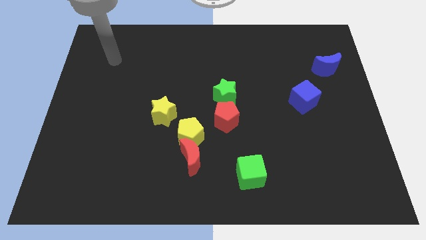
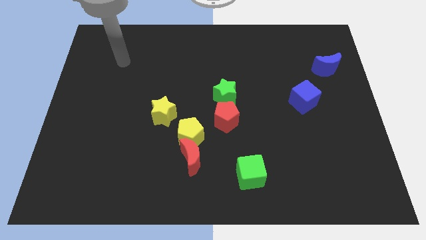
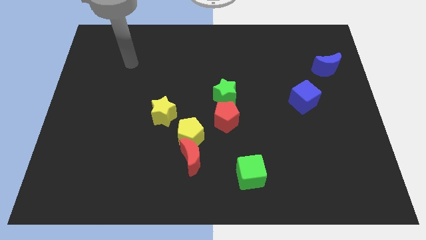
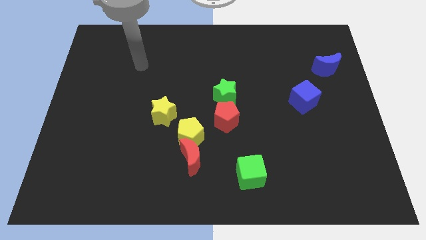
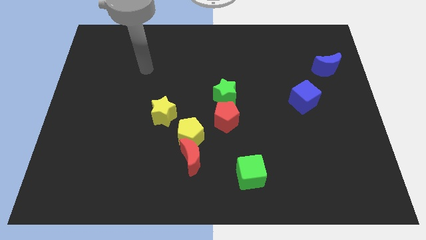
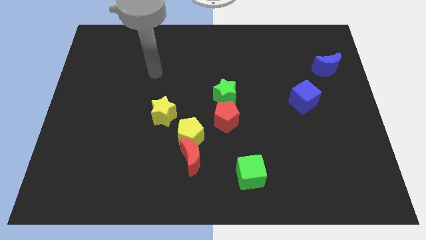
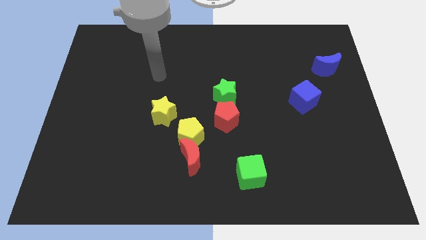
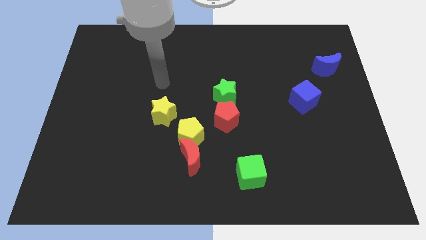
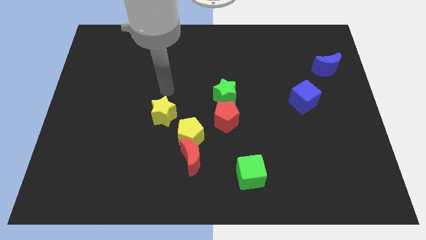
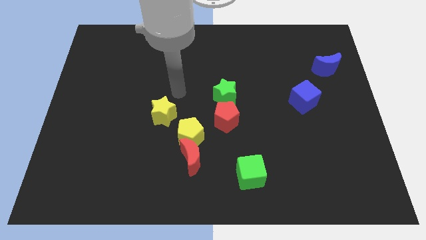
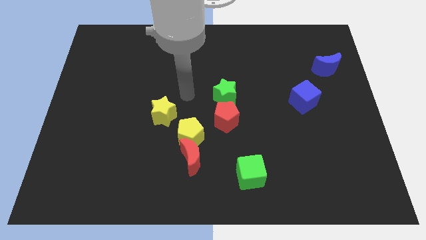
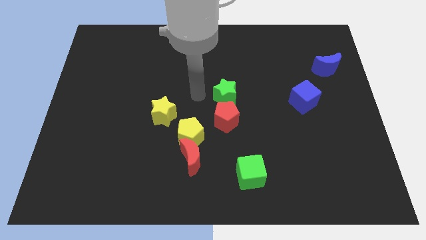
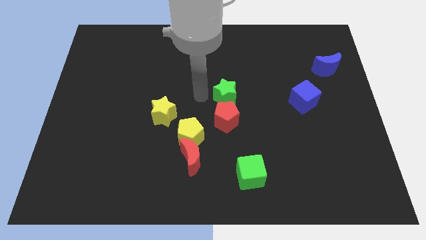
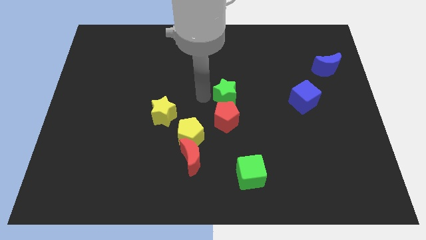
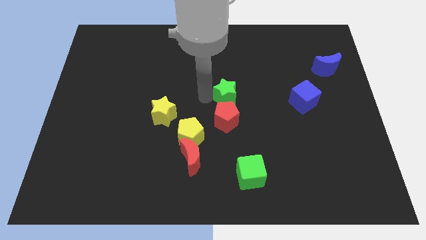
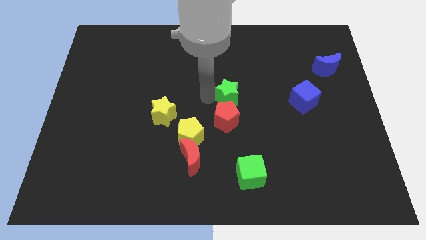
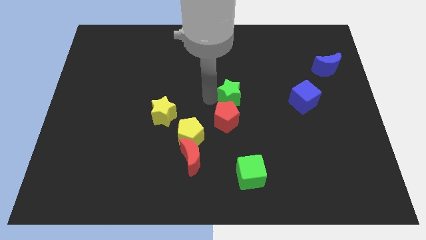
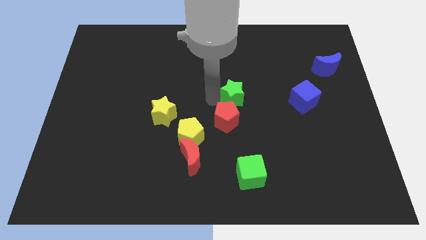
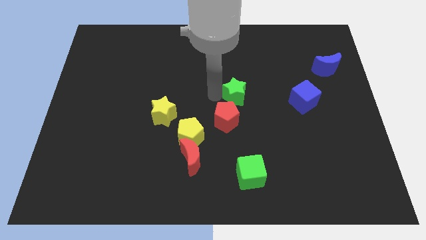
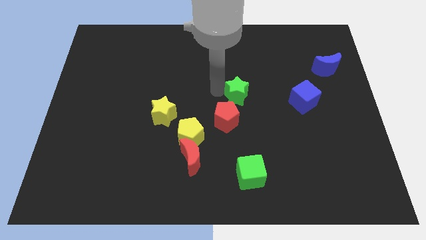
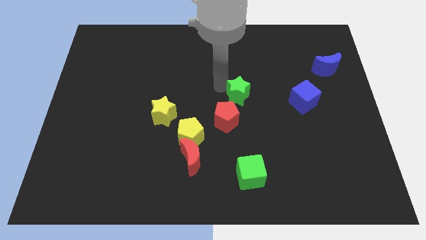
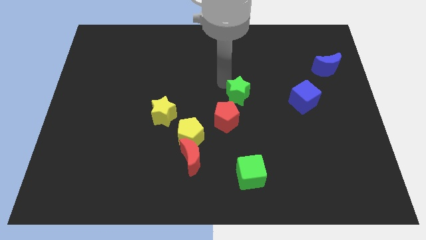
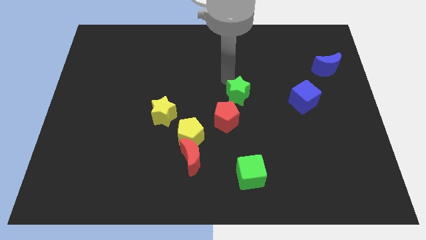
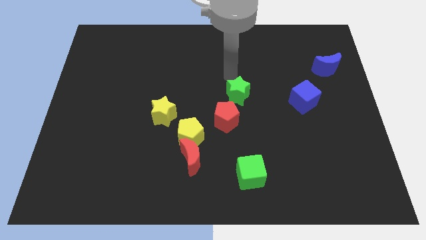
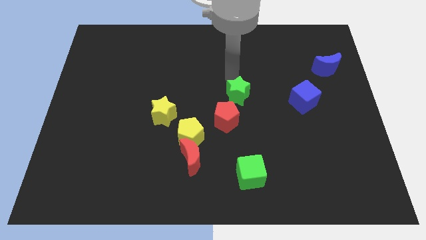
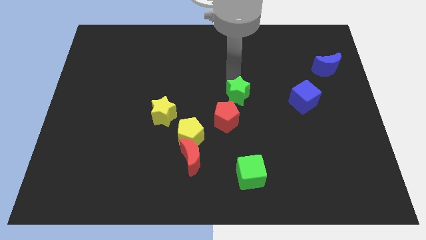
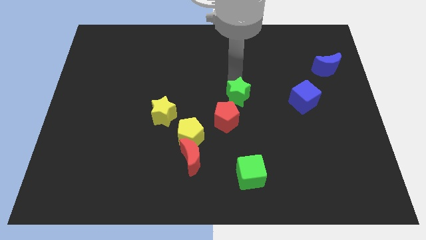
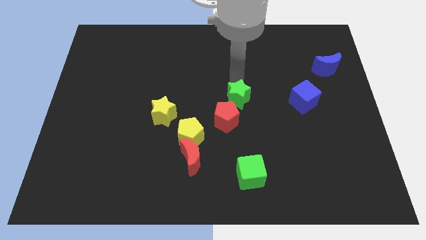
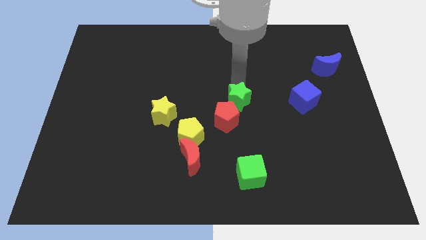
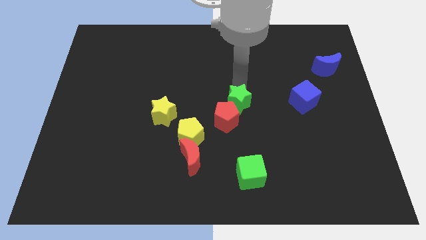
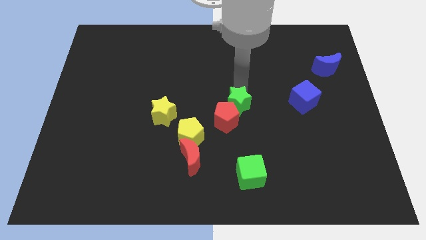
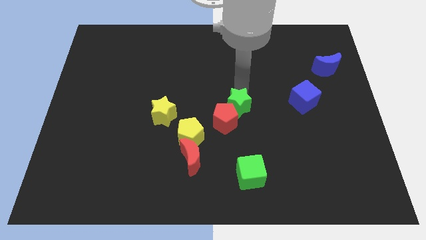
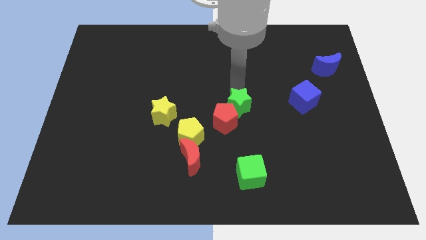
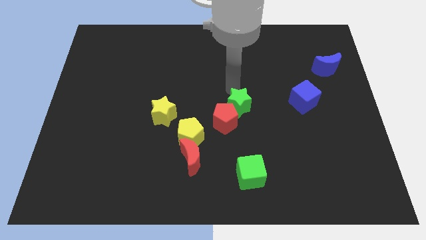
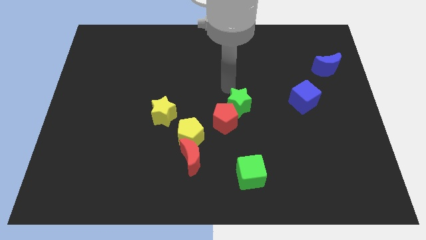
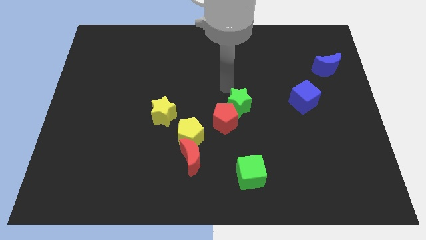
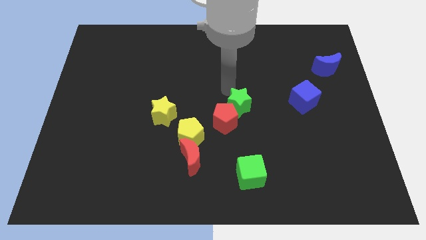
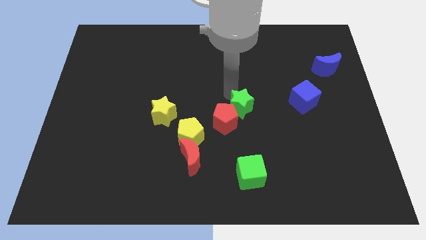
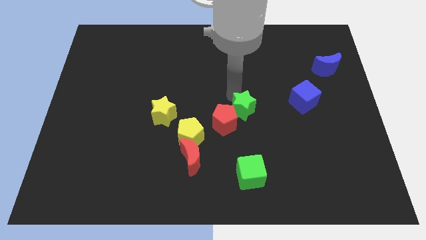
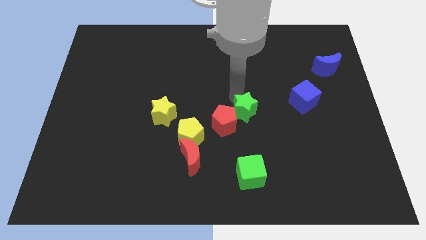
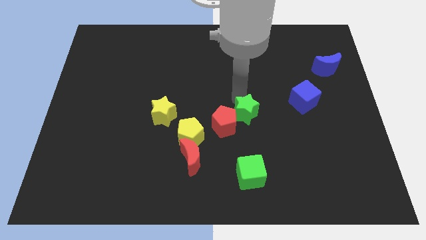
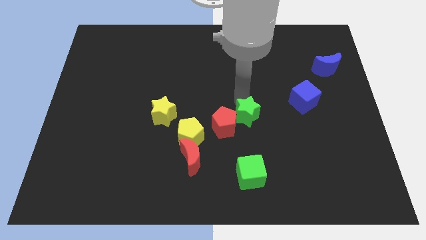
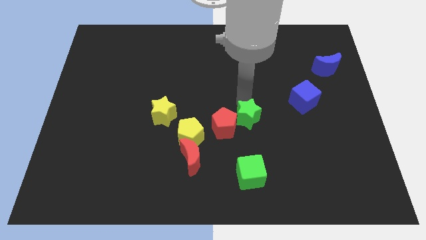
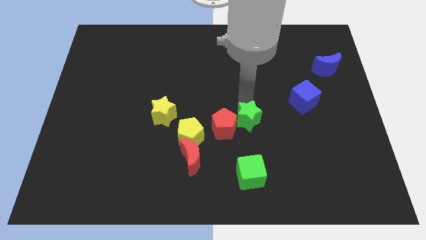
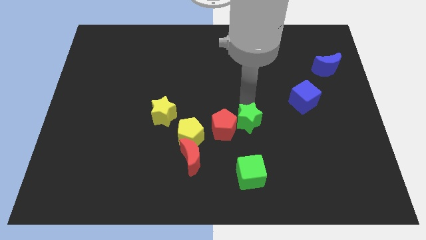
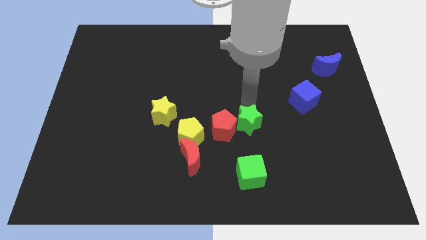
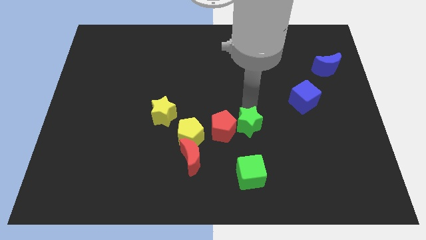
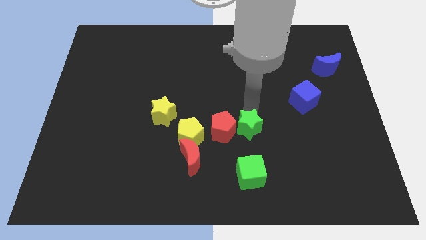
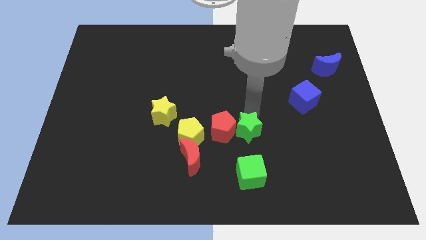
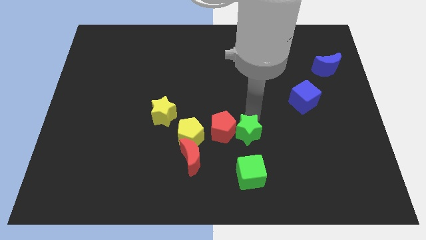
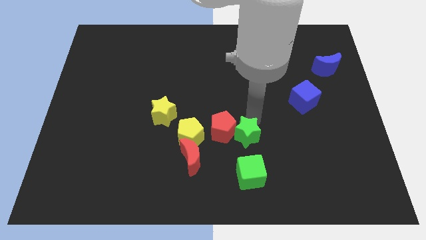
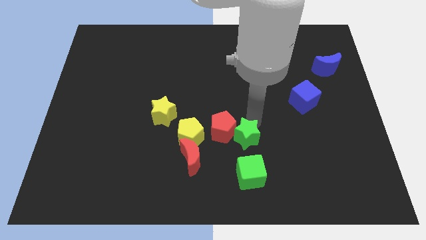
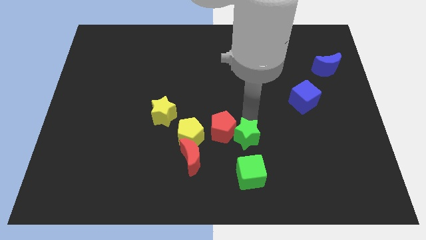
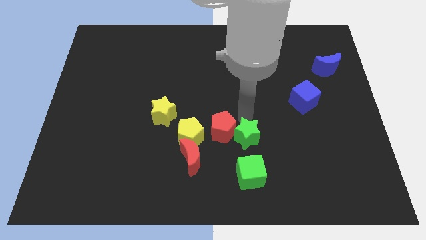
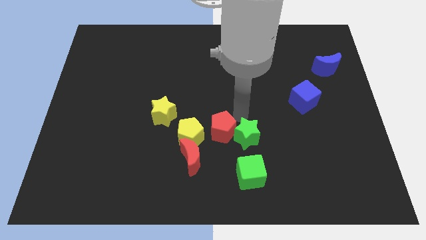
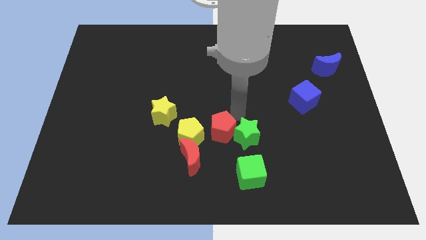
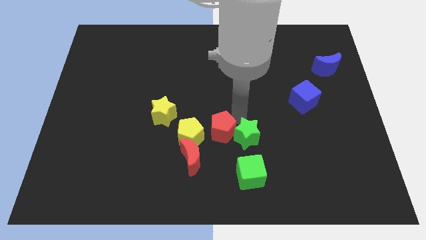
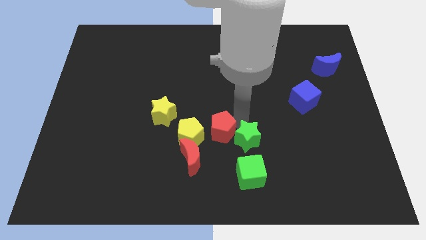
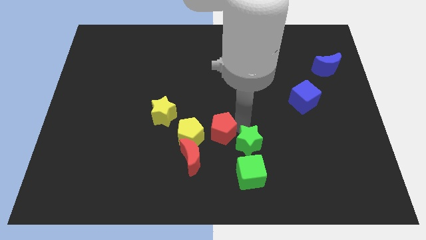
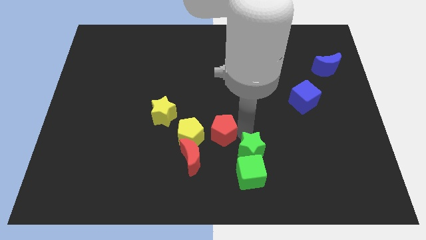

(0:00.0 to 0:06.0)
push the green star to the green cube

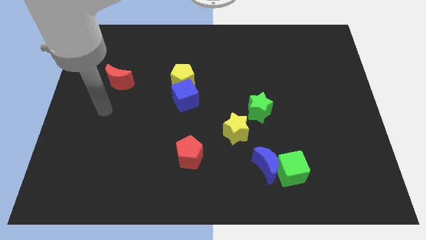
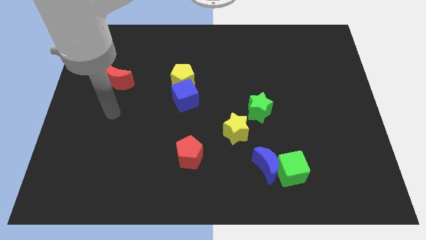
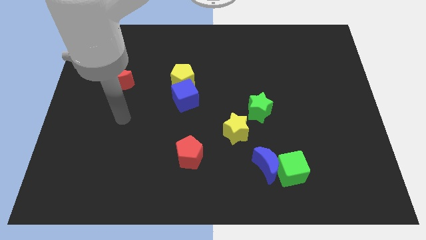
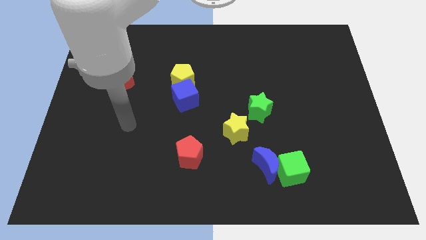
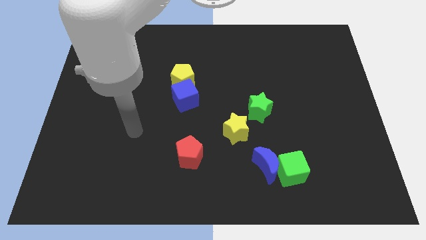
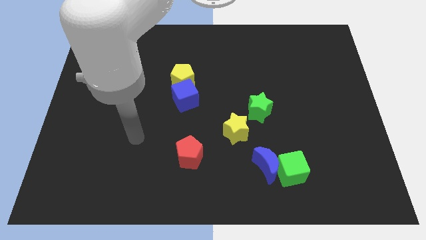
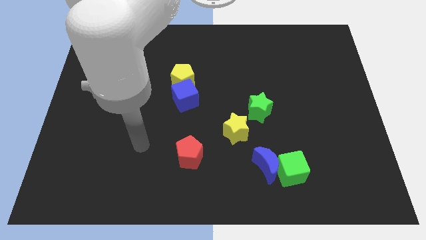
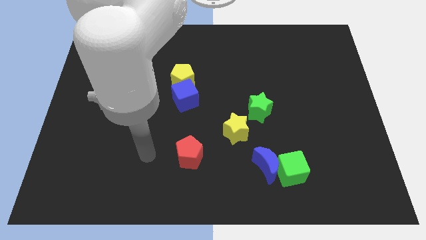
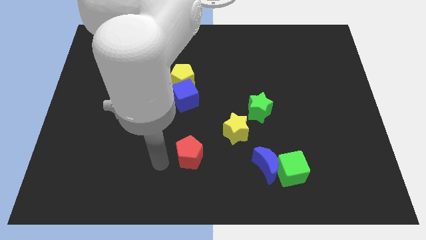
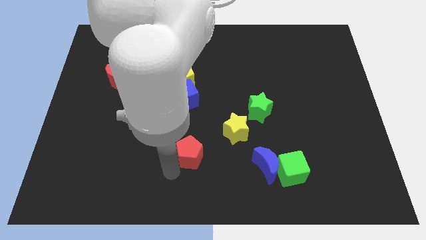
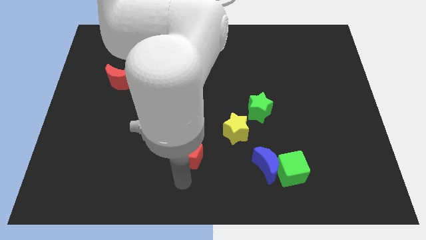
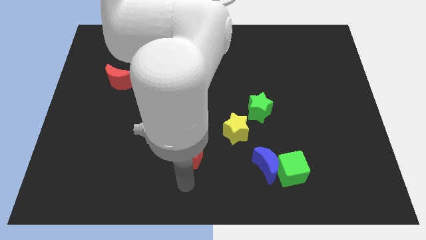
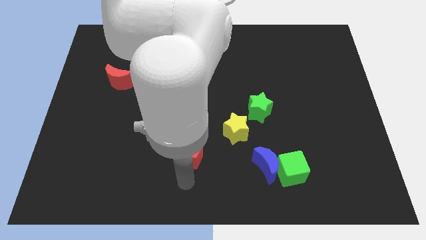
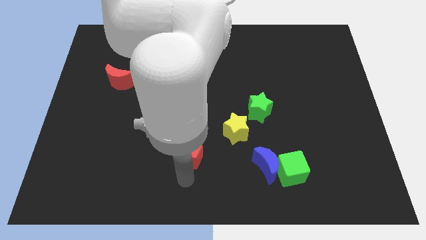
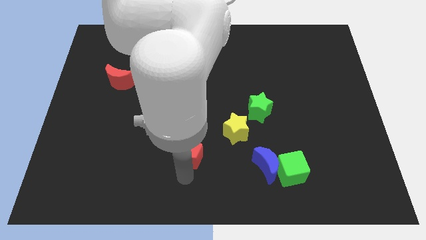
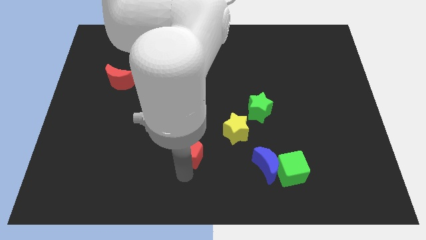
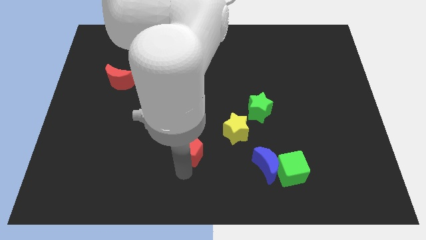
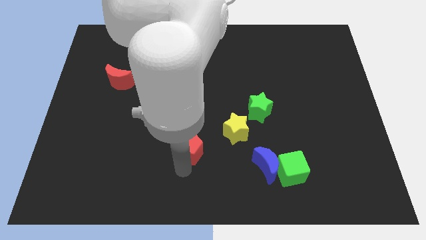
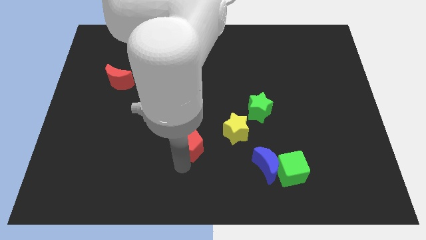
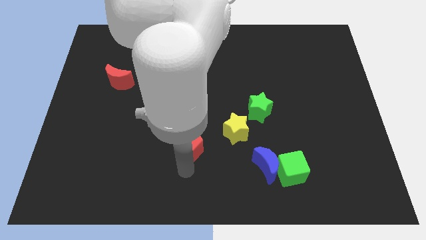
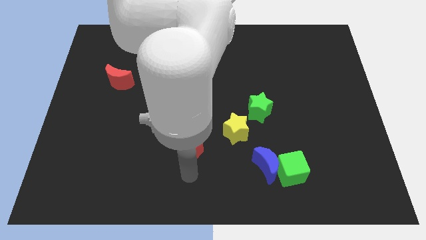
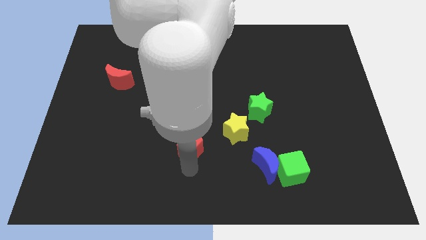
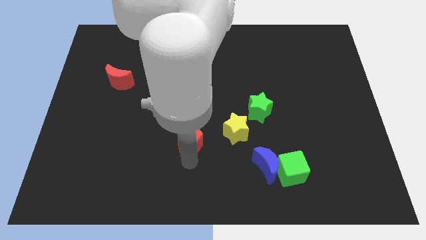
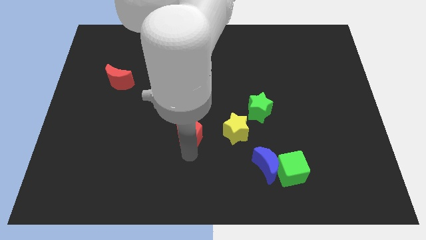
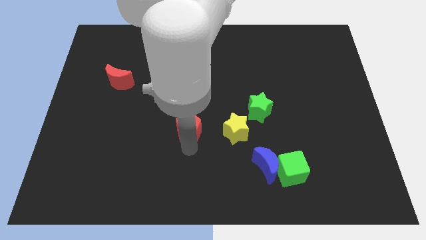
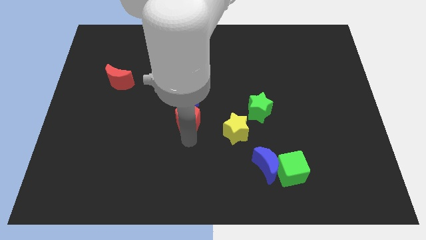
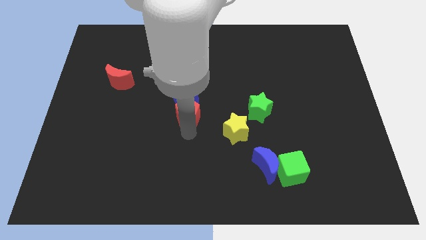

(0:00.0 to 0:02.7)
push the red pentagon next to the blue cube
